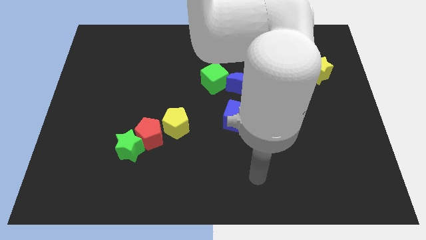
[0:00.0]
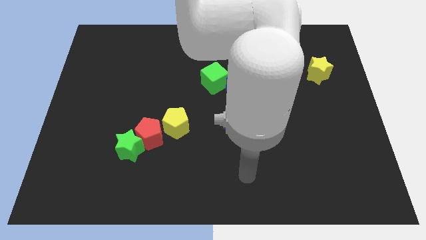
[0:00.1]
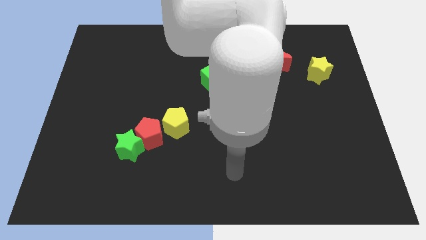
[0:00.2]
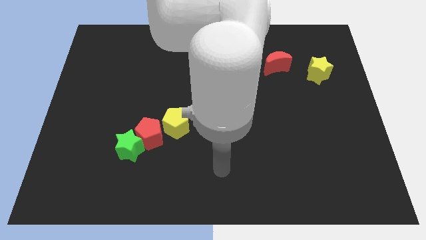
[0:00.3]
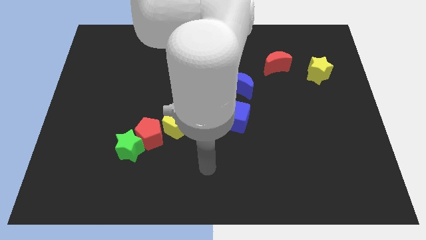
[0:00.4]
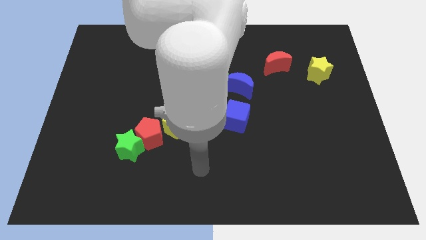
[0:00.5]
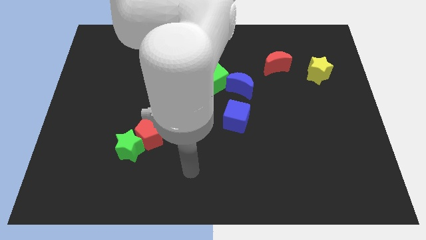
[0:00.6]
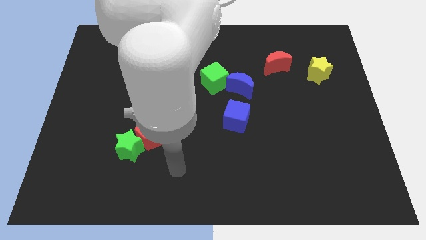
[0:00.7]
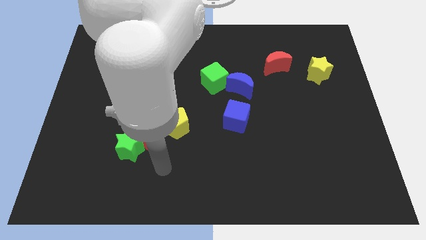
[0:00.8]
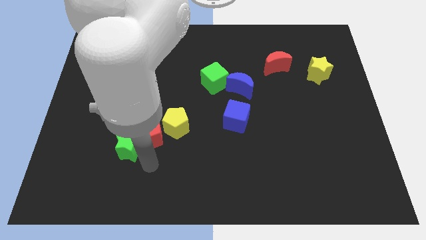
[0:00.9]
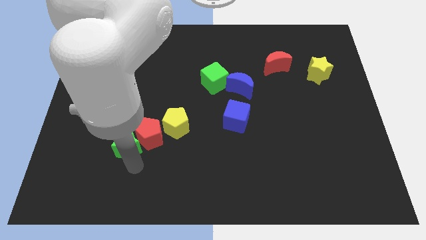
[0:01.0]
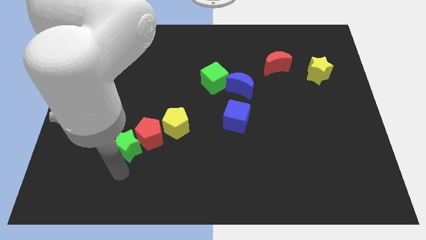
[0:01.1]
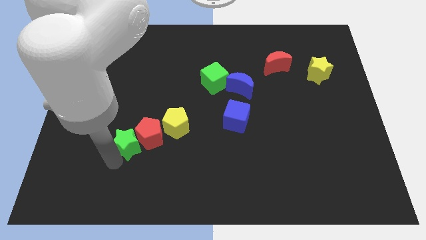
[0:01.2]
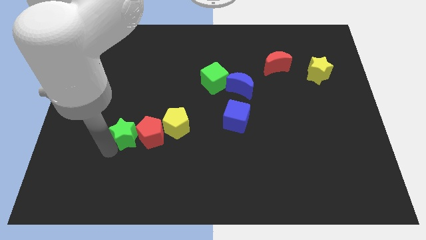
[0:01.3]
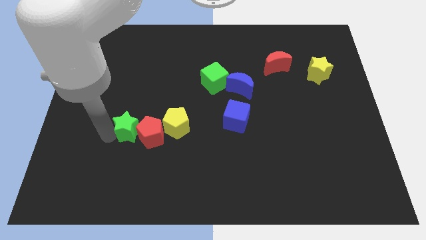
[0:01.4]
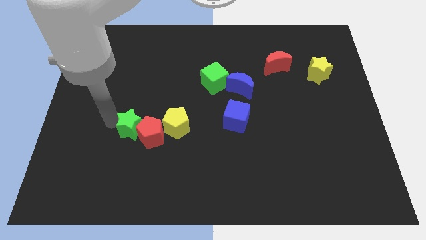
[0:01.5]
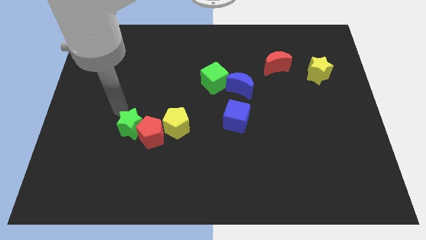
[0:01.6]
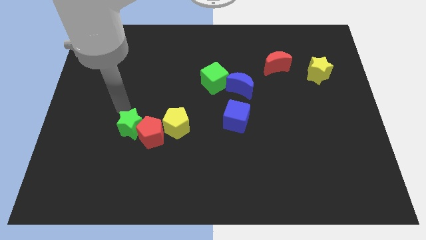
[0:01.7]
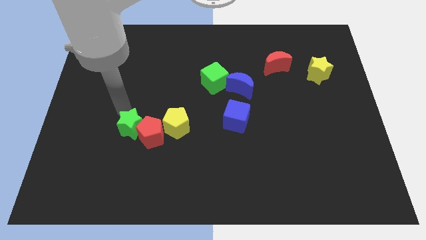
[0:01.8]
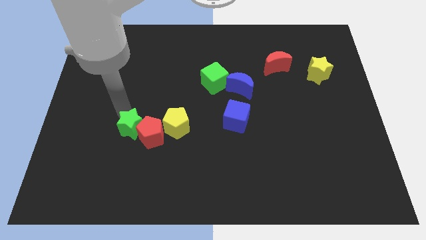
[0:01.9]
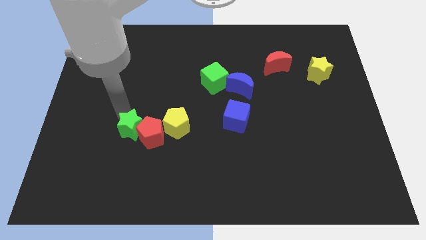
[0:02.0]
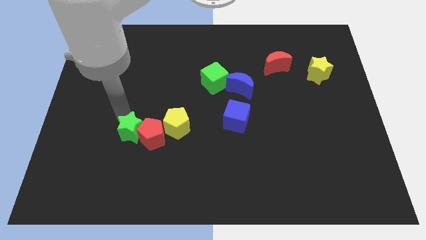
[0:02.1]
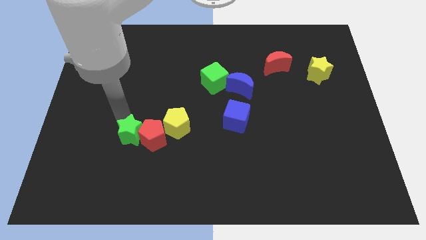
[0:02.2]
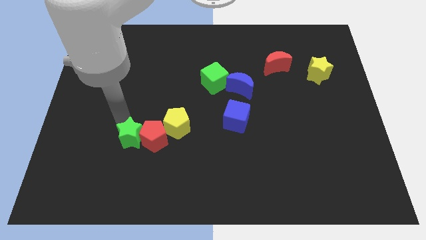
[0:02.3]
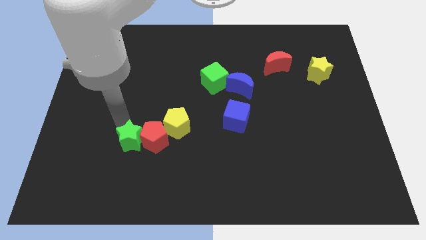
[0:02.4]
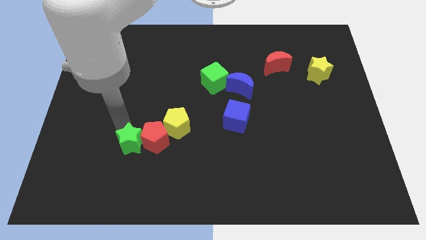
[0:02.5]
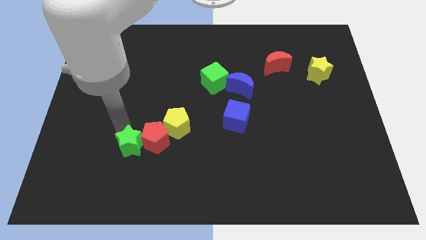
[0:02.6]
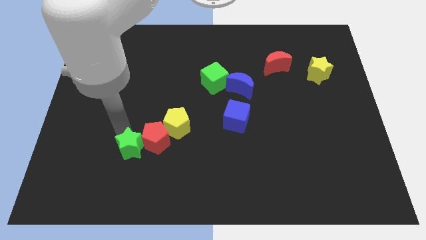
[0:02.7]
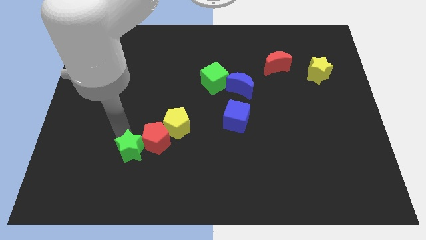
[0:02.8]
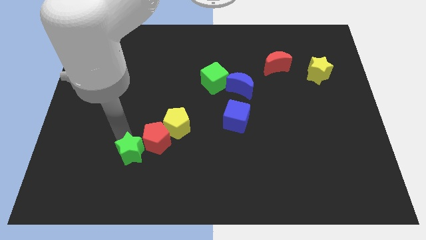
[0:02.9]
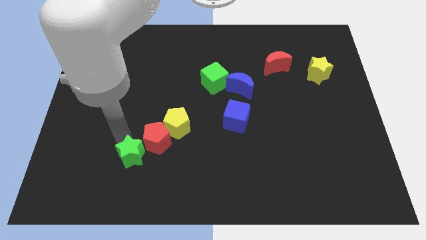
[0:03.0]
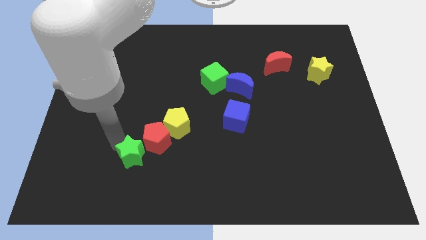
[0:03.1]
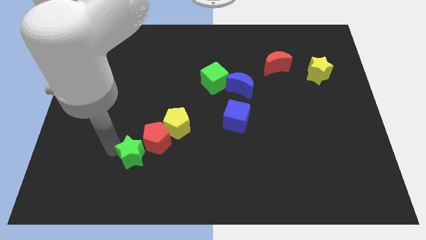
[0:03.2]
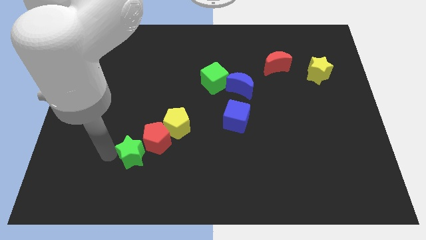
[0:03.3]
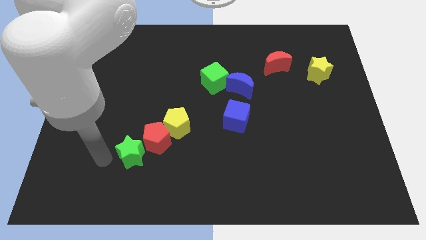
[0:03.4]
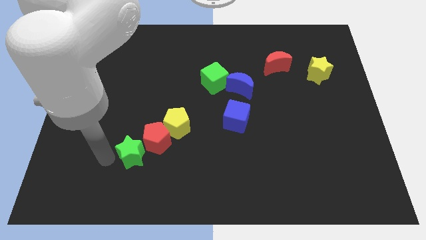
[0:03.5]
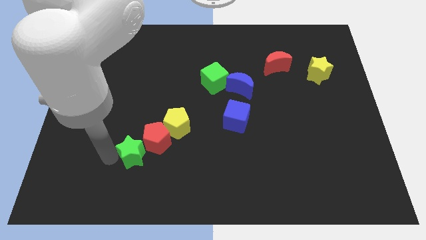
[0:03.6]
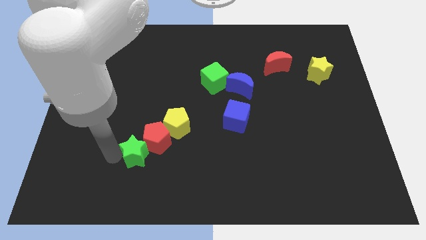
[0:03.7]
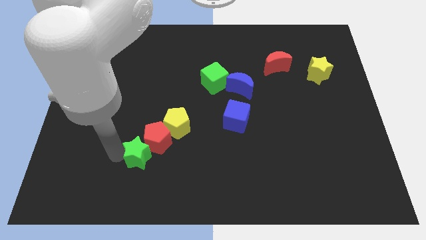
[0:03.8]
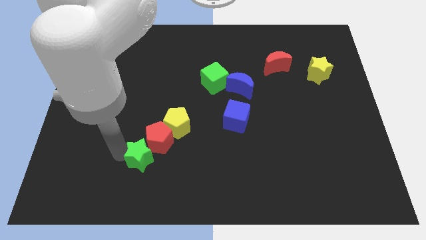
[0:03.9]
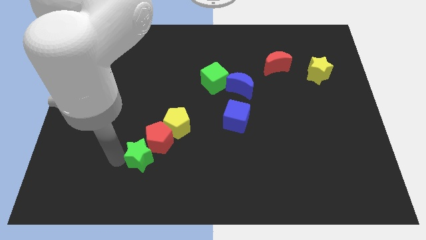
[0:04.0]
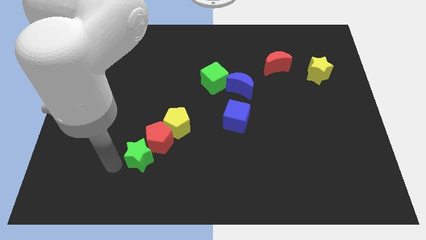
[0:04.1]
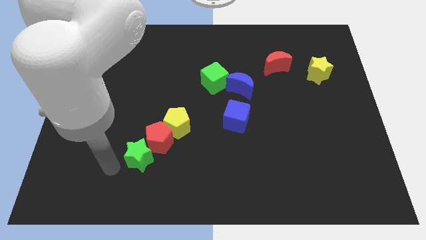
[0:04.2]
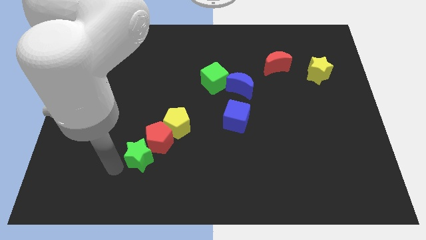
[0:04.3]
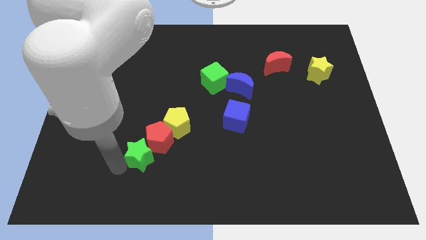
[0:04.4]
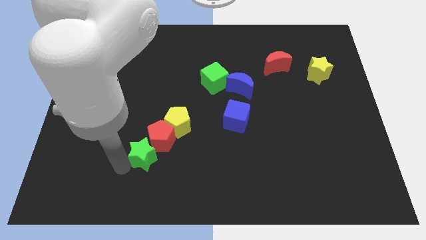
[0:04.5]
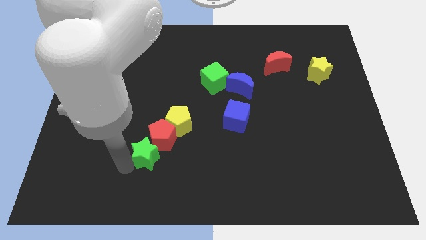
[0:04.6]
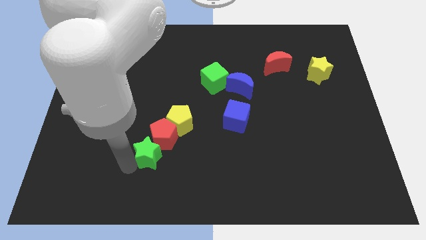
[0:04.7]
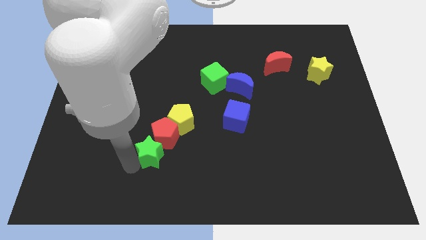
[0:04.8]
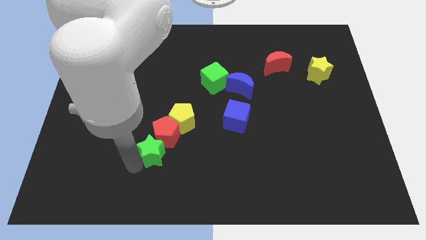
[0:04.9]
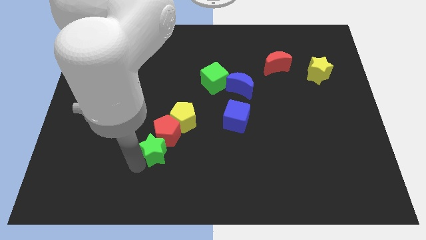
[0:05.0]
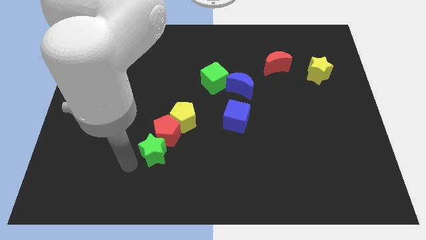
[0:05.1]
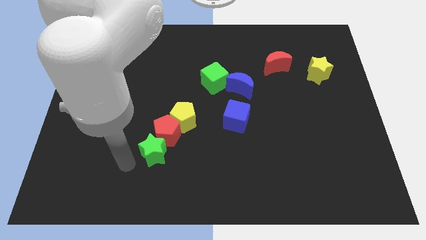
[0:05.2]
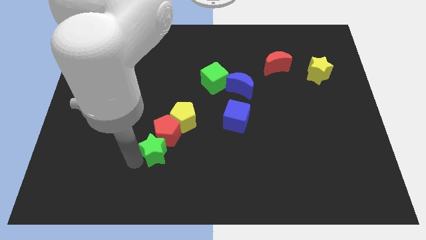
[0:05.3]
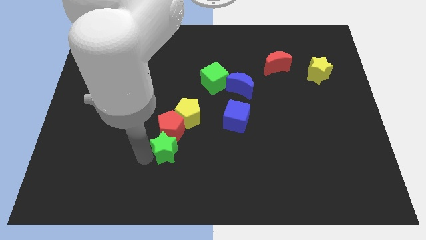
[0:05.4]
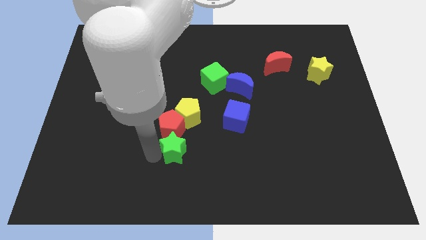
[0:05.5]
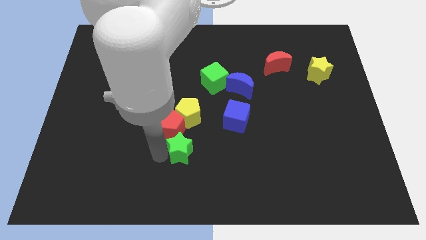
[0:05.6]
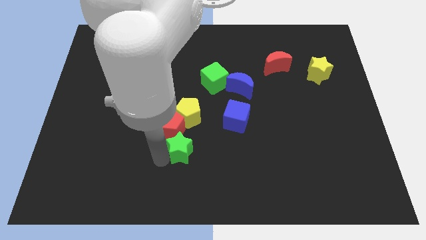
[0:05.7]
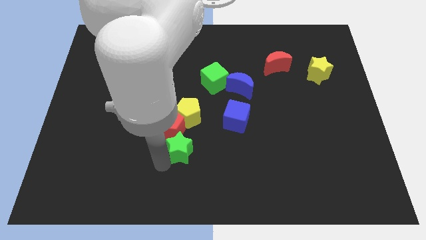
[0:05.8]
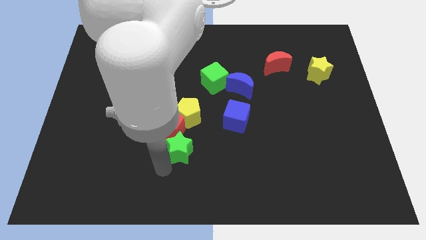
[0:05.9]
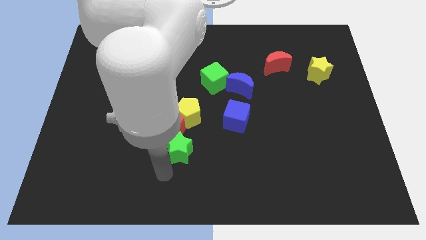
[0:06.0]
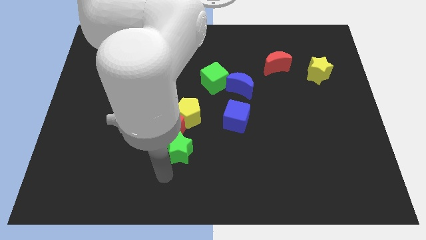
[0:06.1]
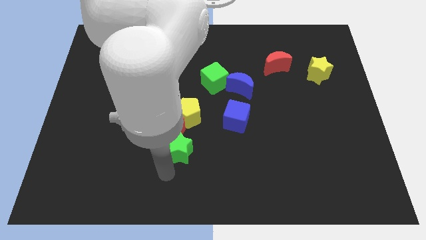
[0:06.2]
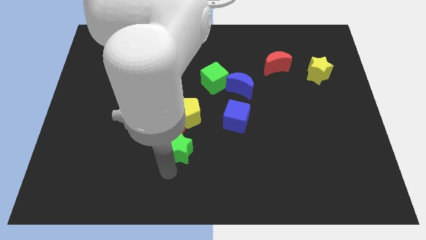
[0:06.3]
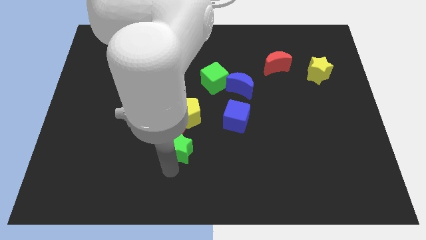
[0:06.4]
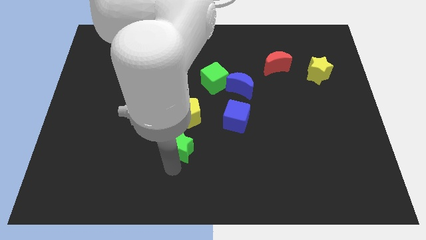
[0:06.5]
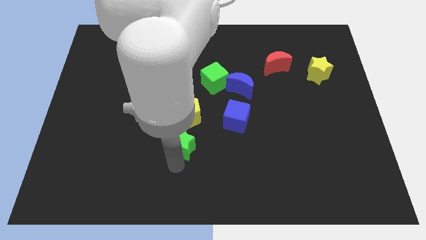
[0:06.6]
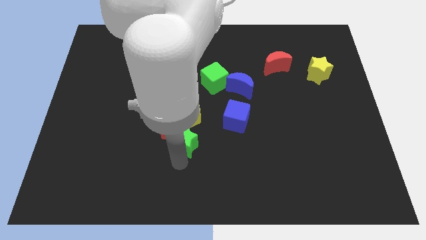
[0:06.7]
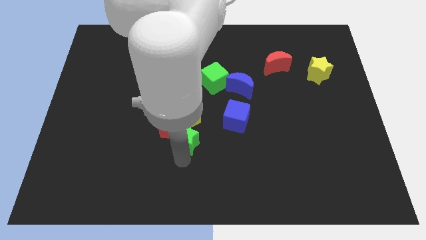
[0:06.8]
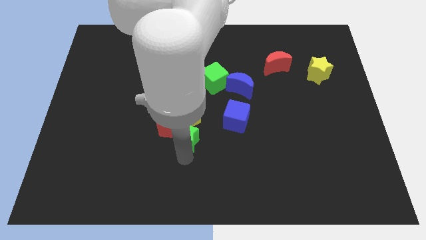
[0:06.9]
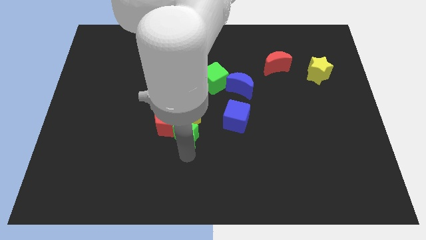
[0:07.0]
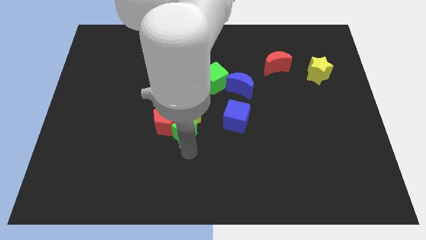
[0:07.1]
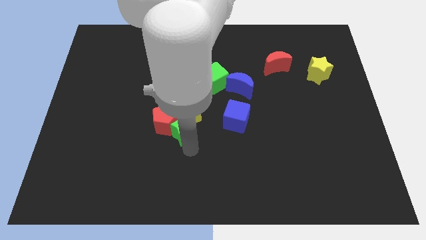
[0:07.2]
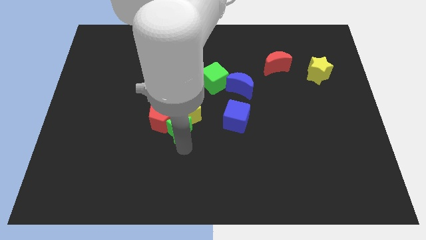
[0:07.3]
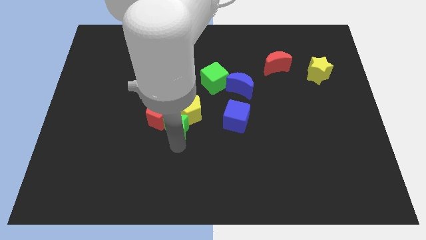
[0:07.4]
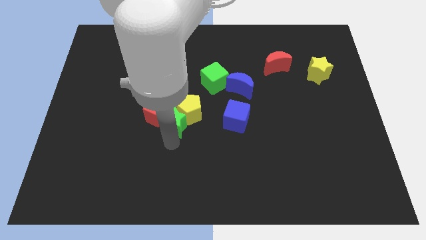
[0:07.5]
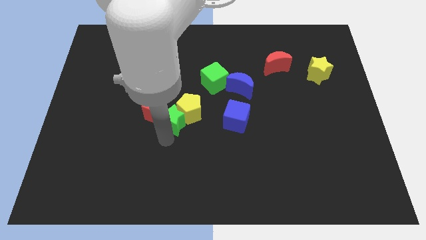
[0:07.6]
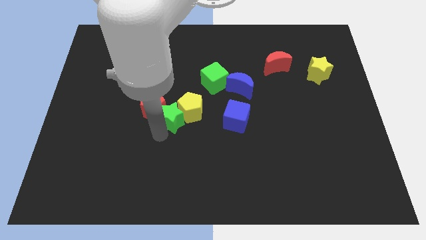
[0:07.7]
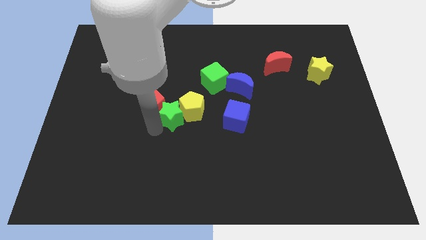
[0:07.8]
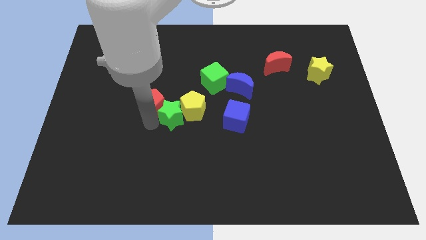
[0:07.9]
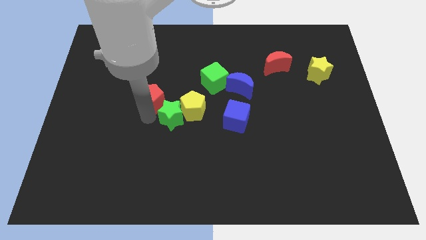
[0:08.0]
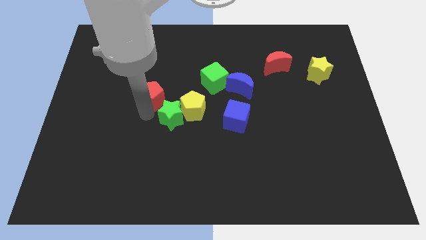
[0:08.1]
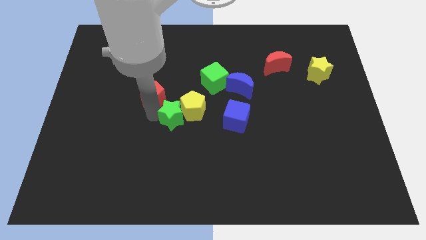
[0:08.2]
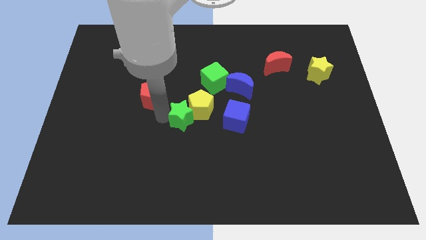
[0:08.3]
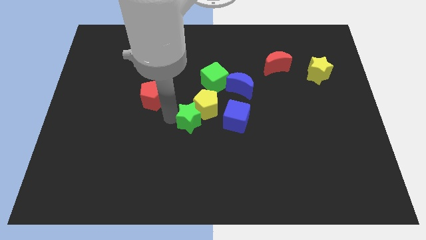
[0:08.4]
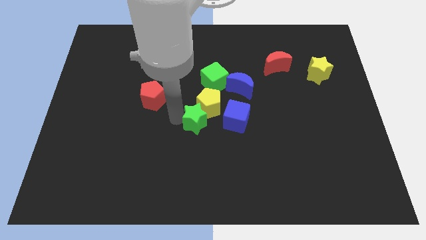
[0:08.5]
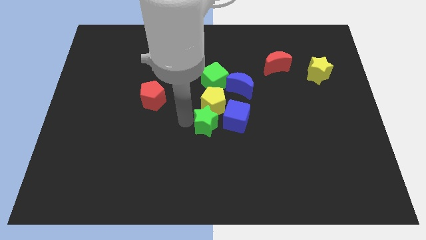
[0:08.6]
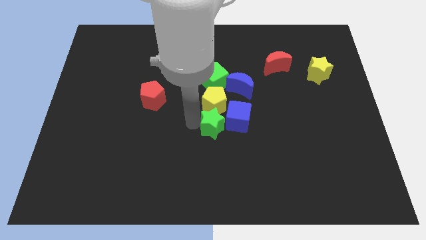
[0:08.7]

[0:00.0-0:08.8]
put the green star close to the blue cube
